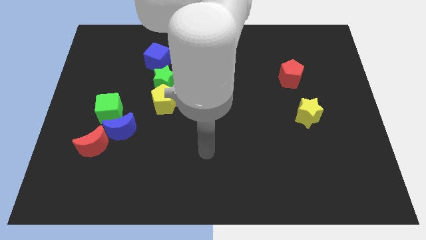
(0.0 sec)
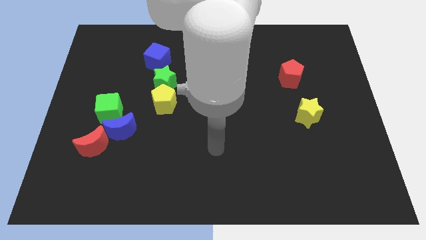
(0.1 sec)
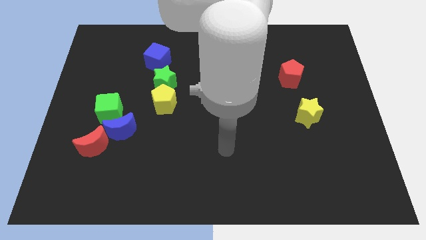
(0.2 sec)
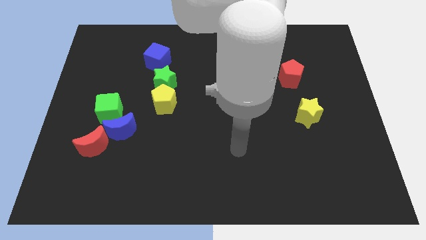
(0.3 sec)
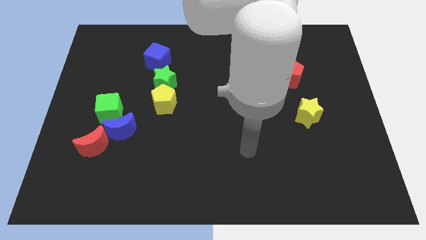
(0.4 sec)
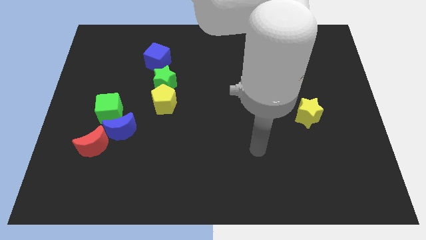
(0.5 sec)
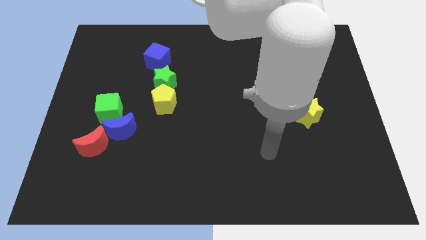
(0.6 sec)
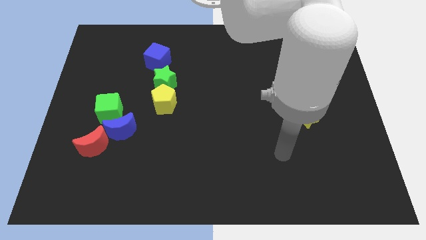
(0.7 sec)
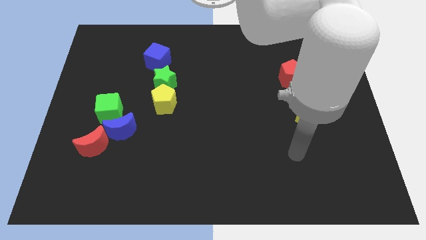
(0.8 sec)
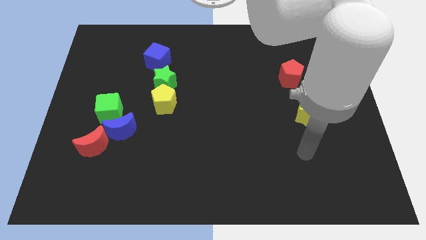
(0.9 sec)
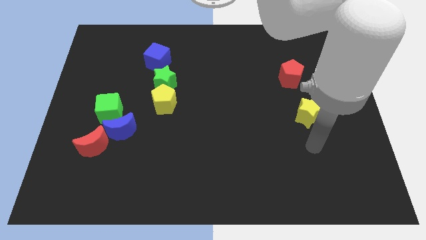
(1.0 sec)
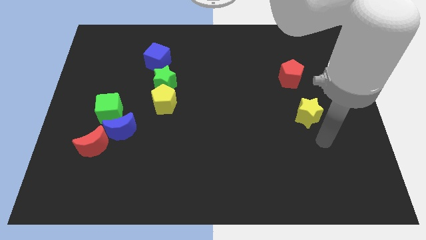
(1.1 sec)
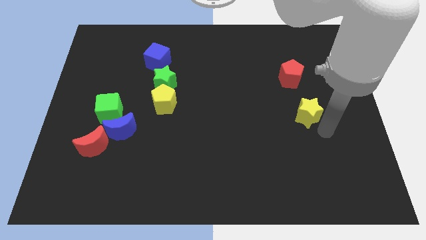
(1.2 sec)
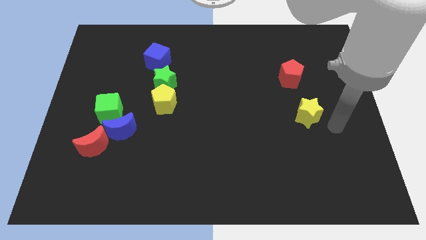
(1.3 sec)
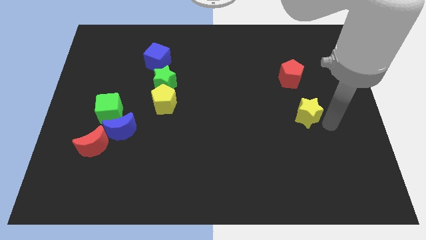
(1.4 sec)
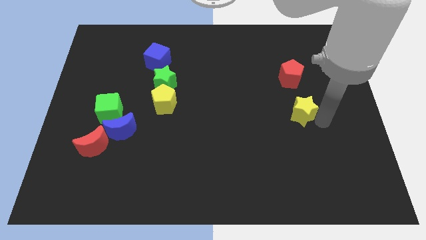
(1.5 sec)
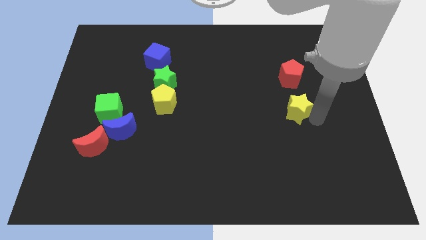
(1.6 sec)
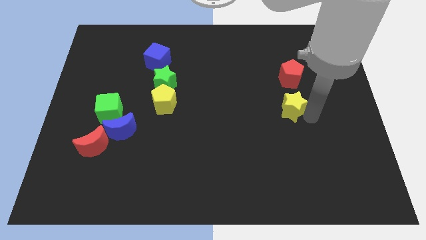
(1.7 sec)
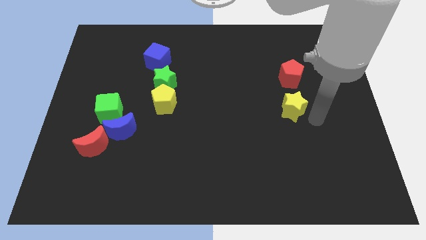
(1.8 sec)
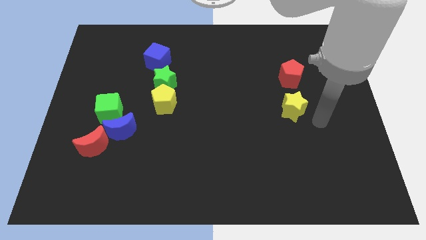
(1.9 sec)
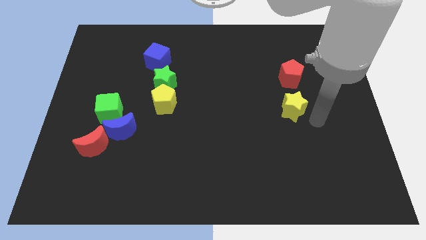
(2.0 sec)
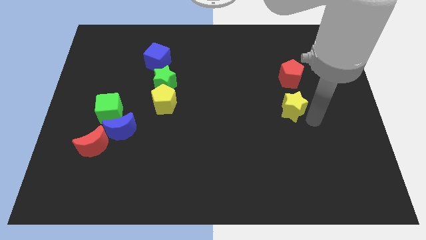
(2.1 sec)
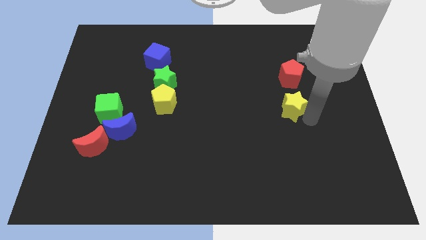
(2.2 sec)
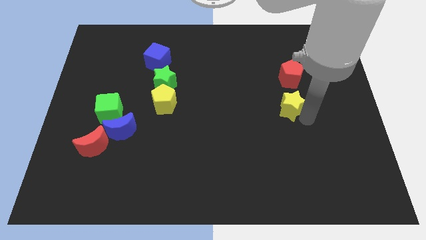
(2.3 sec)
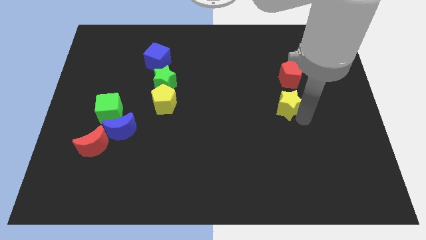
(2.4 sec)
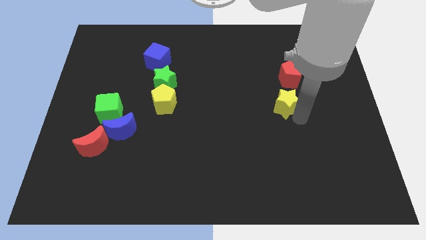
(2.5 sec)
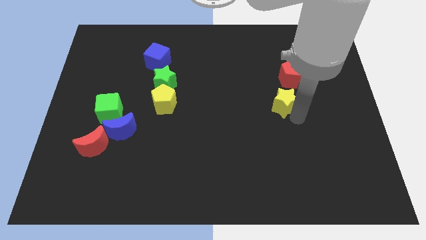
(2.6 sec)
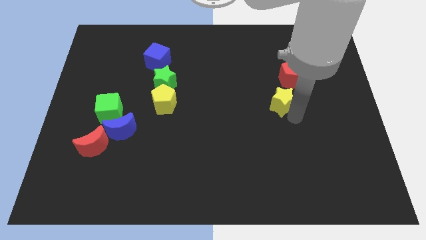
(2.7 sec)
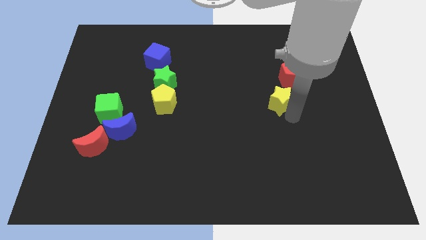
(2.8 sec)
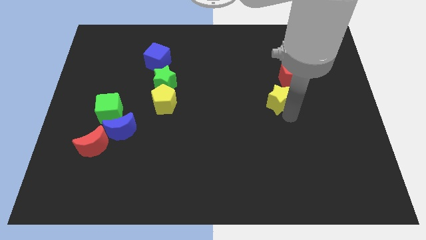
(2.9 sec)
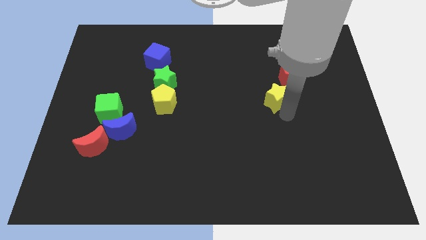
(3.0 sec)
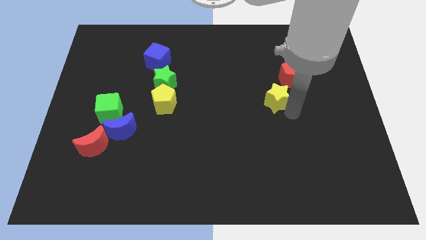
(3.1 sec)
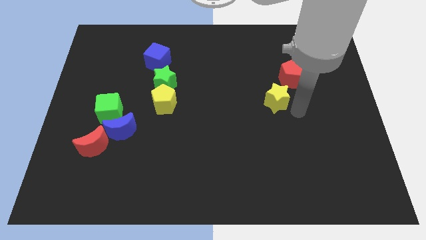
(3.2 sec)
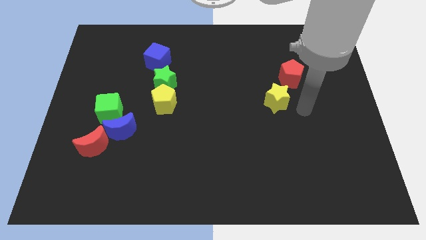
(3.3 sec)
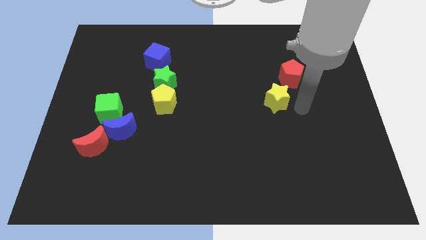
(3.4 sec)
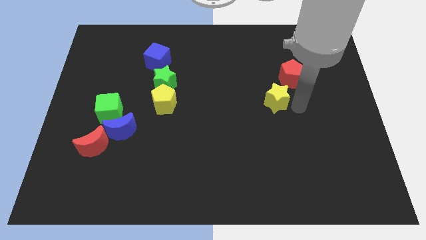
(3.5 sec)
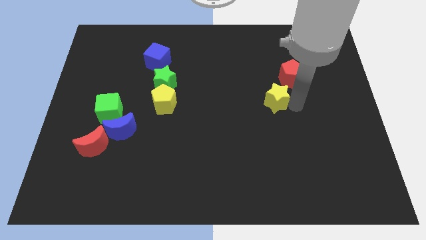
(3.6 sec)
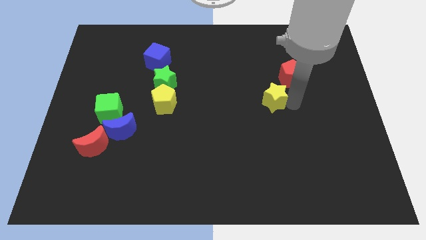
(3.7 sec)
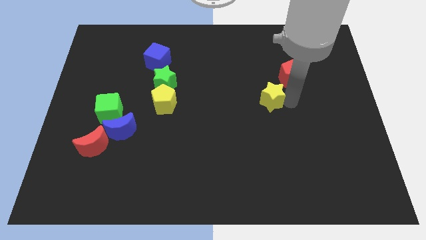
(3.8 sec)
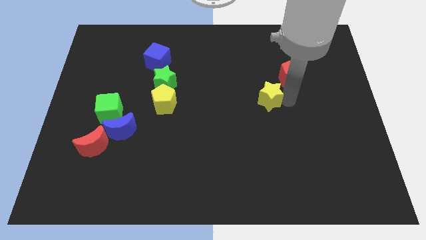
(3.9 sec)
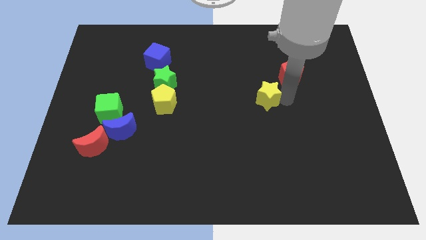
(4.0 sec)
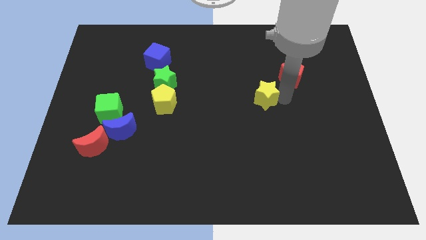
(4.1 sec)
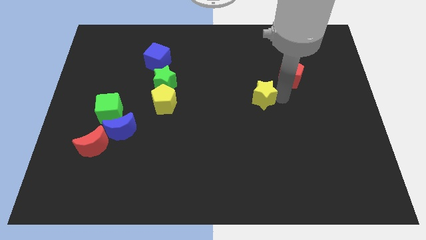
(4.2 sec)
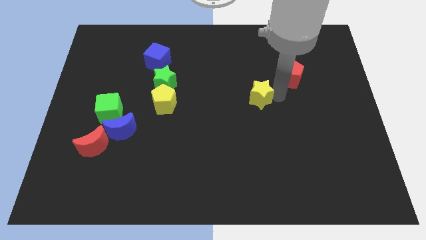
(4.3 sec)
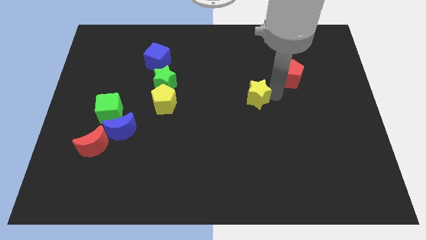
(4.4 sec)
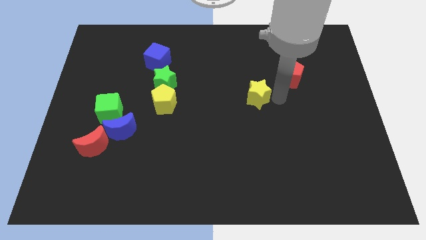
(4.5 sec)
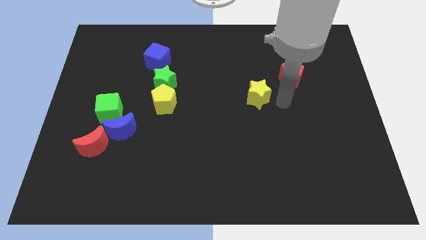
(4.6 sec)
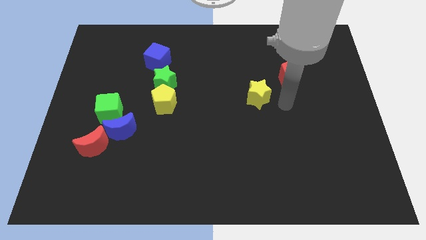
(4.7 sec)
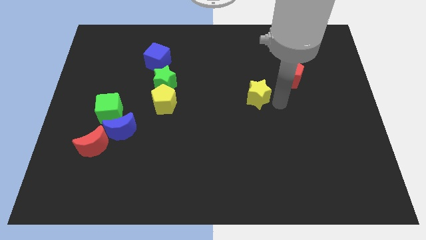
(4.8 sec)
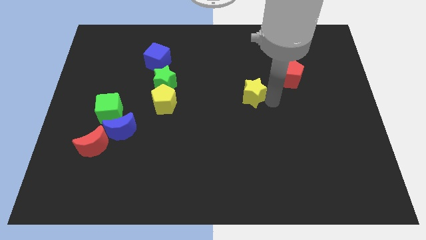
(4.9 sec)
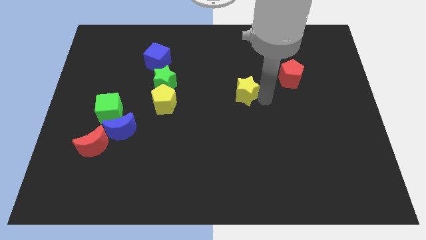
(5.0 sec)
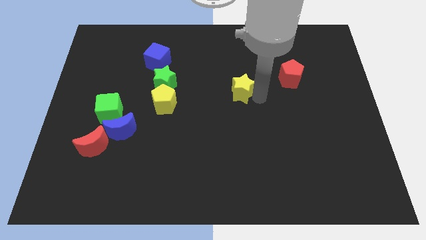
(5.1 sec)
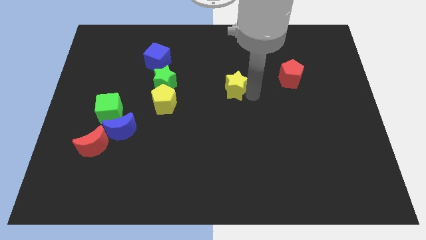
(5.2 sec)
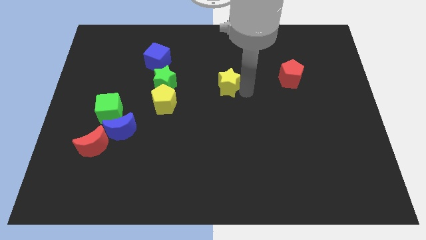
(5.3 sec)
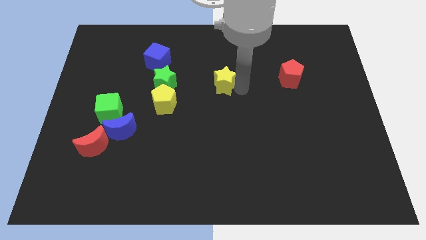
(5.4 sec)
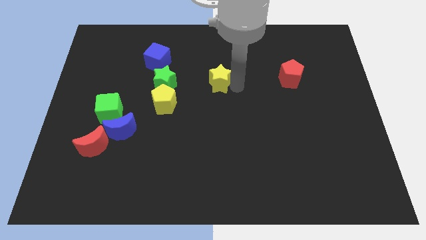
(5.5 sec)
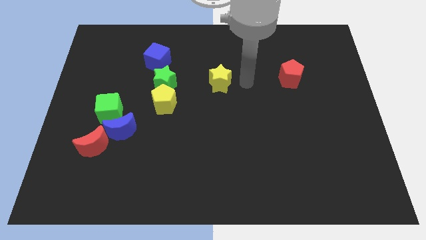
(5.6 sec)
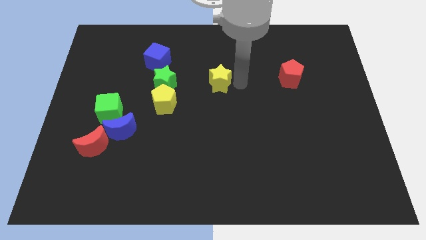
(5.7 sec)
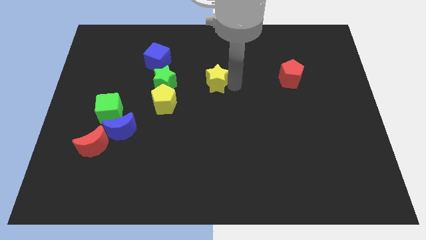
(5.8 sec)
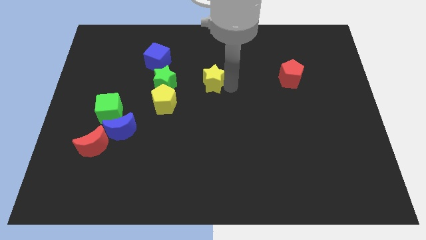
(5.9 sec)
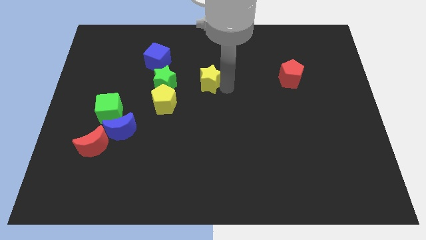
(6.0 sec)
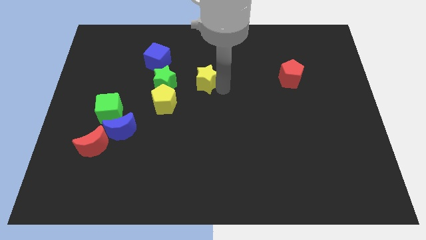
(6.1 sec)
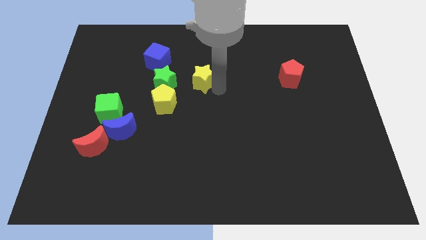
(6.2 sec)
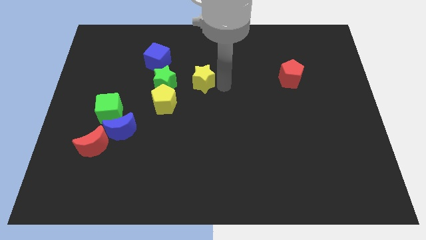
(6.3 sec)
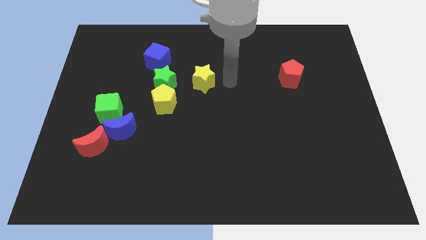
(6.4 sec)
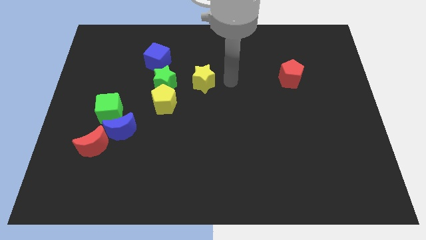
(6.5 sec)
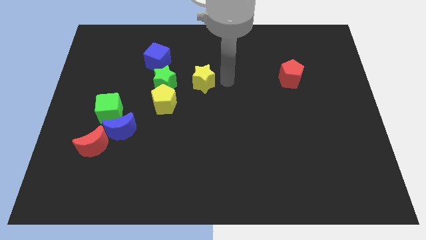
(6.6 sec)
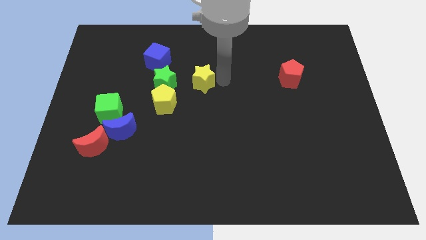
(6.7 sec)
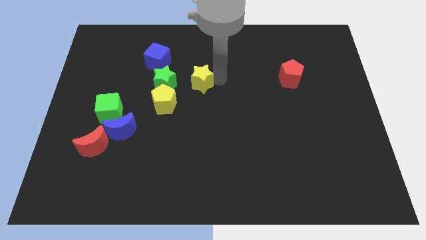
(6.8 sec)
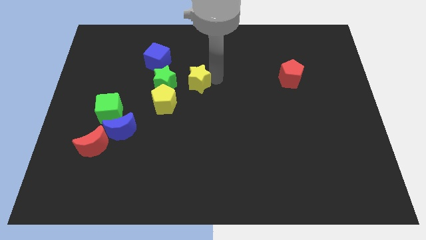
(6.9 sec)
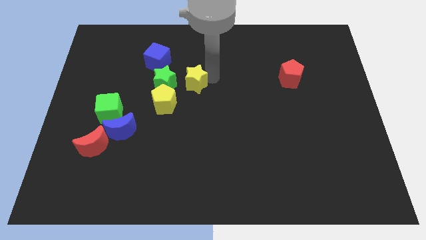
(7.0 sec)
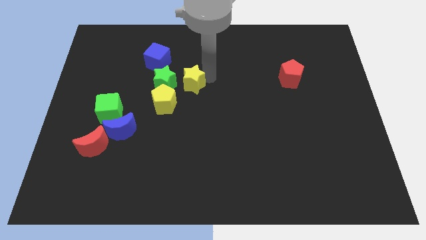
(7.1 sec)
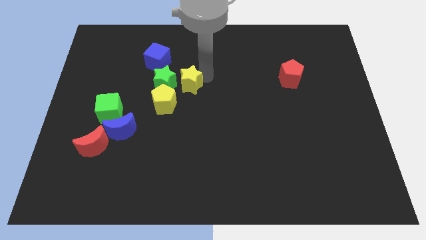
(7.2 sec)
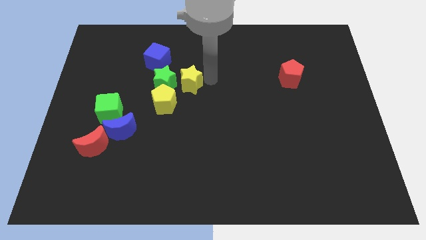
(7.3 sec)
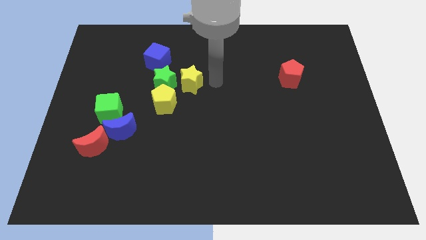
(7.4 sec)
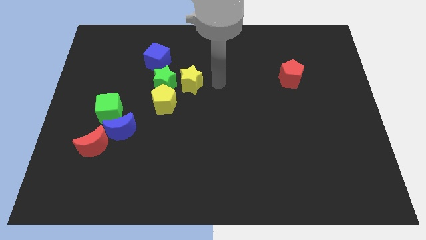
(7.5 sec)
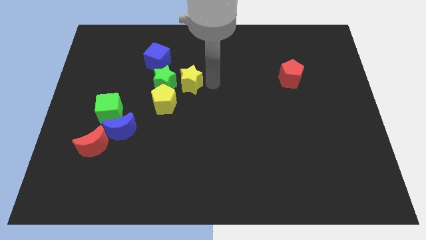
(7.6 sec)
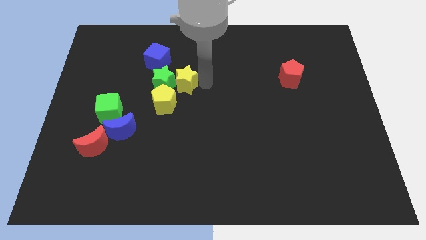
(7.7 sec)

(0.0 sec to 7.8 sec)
move the yellow star close to the green star
